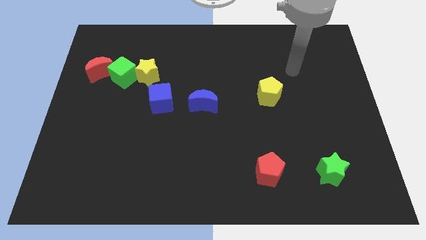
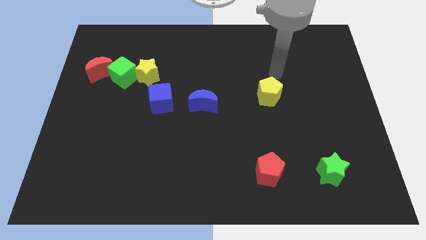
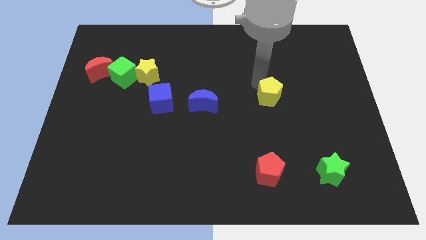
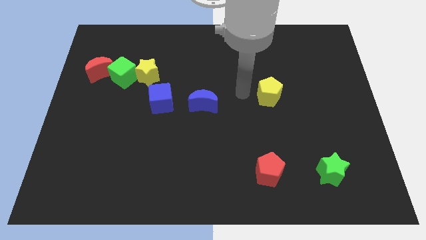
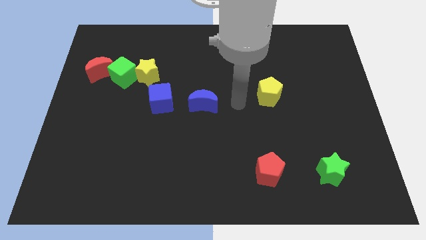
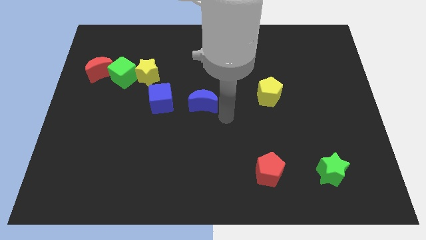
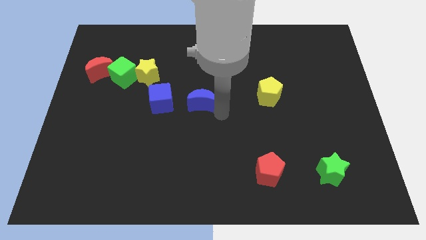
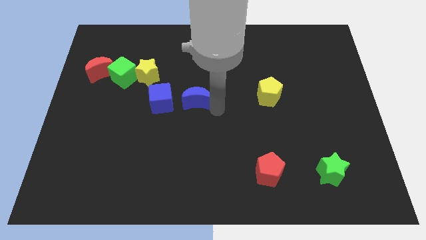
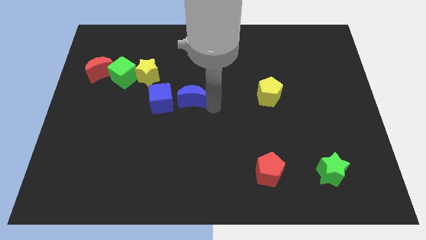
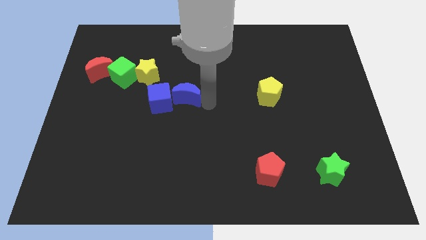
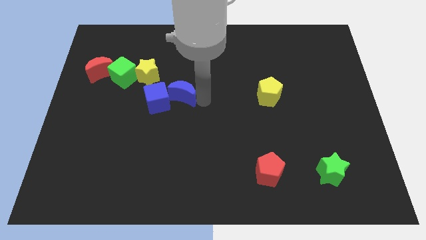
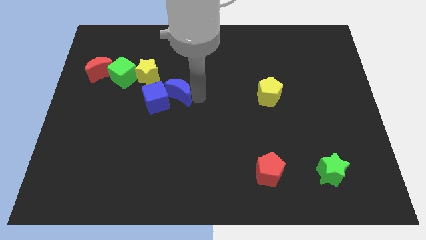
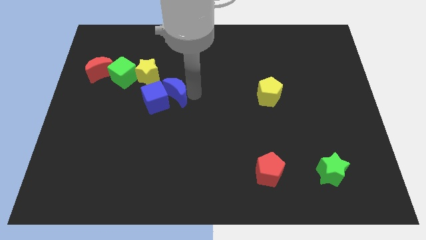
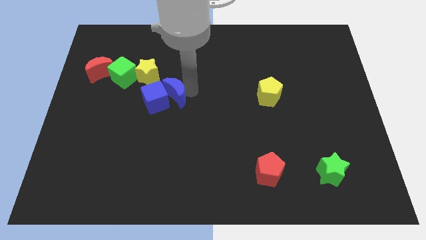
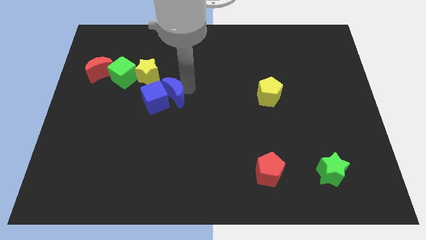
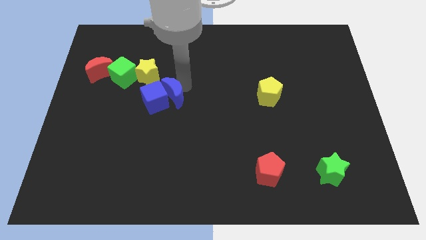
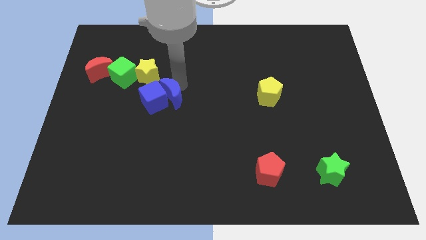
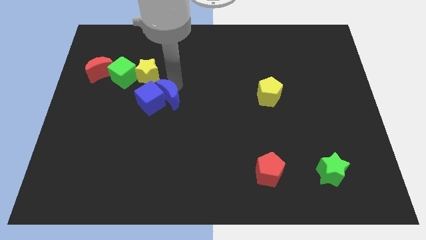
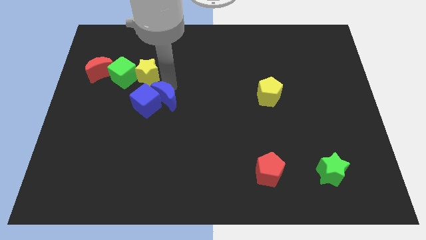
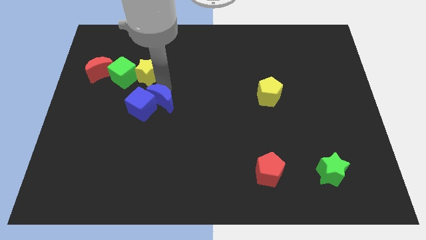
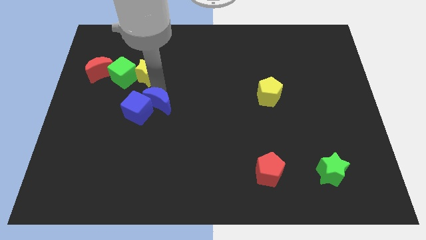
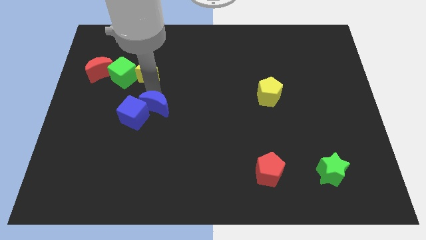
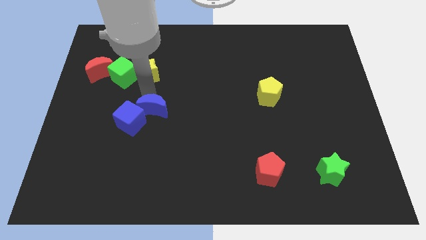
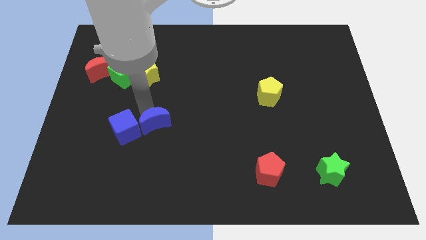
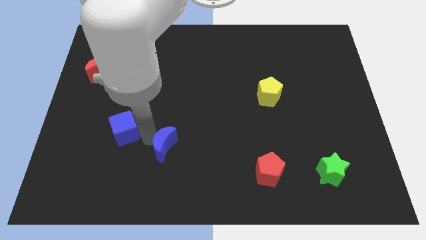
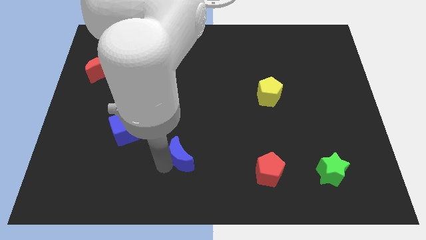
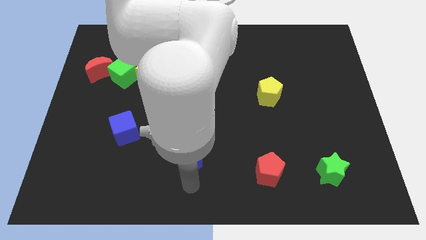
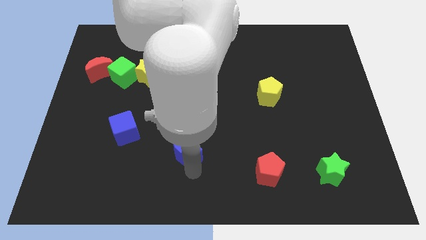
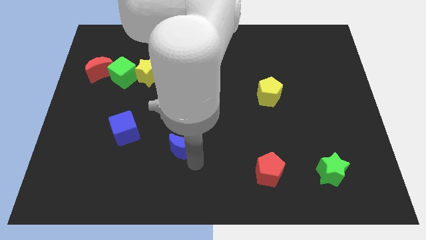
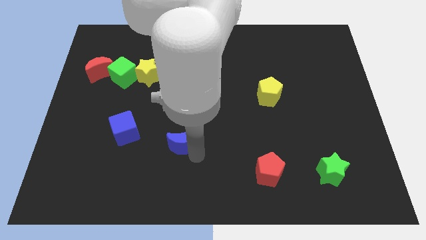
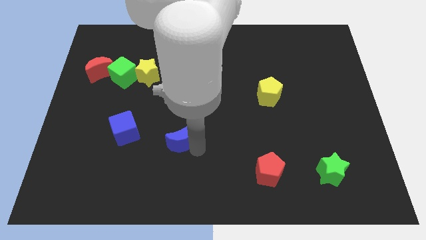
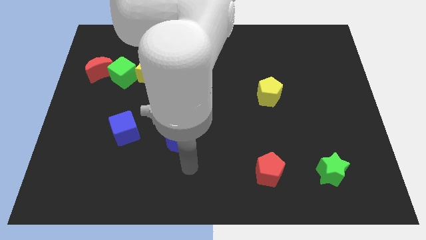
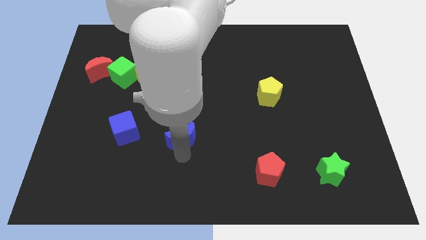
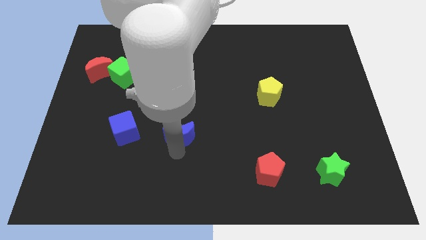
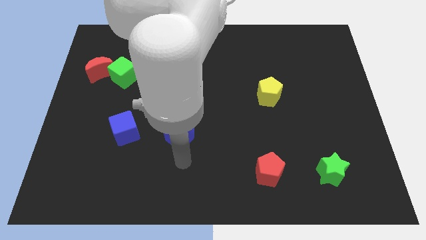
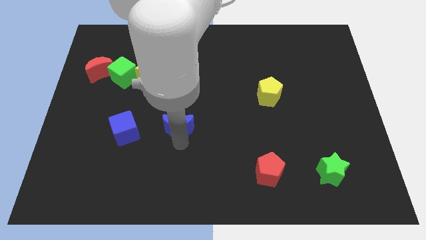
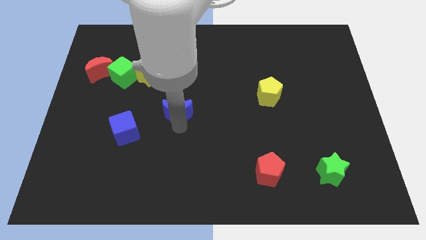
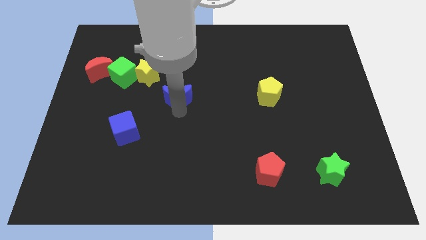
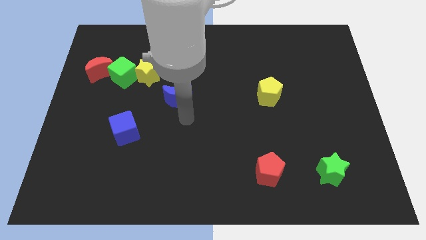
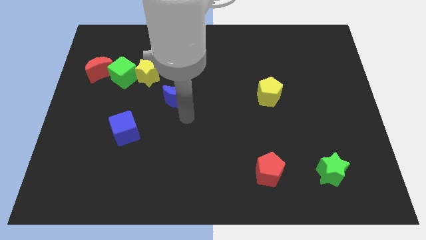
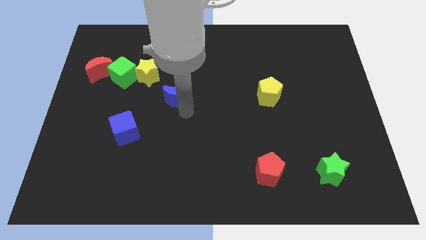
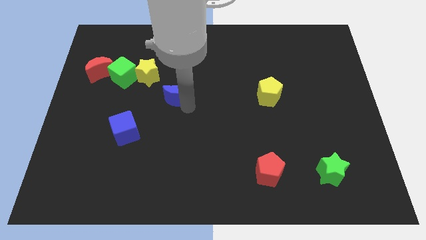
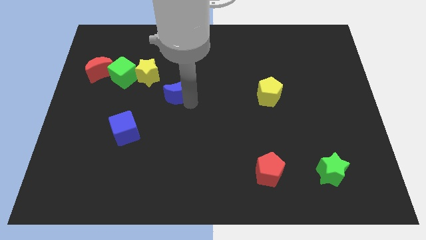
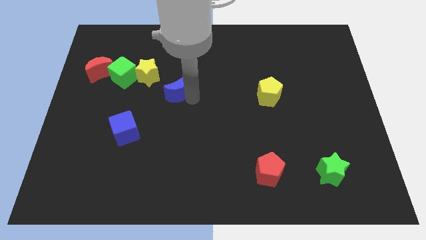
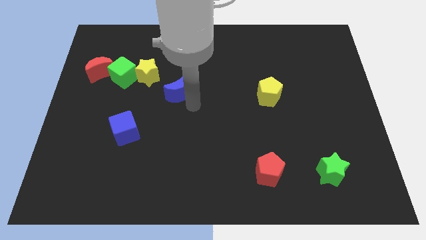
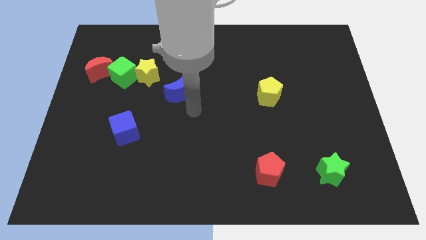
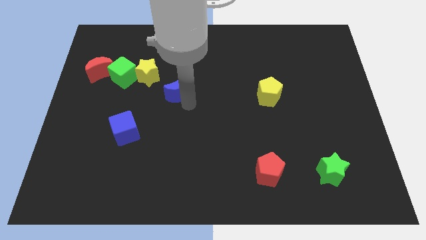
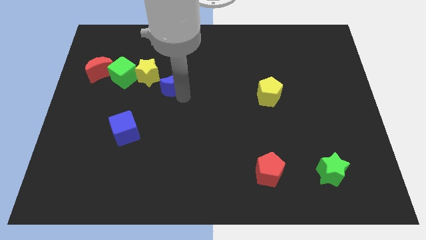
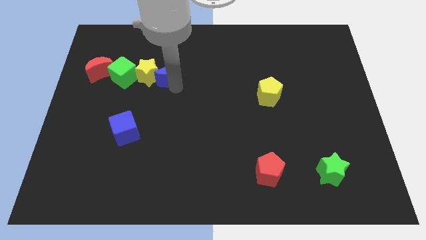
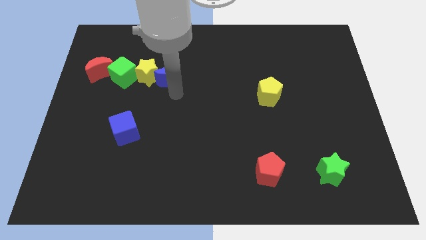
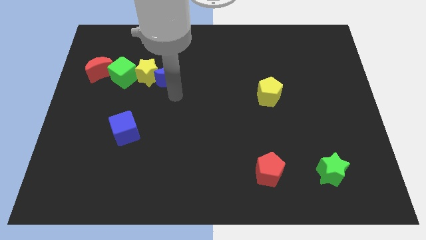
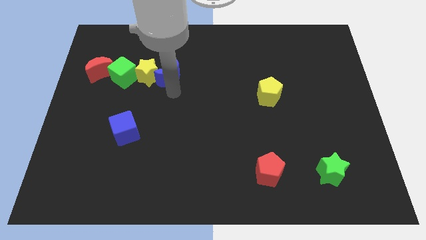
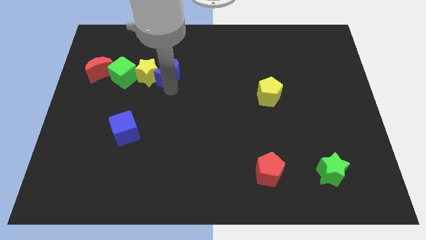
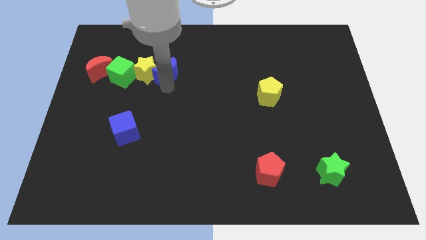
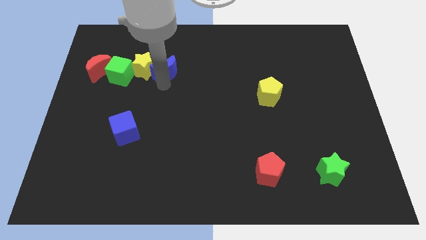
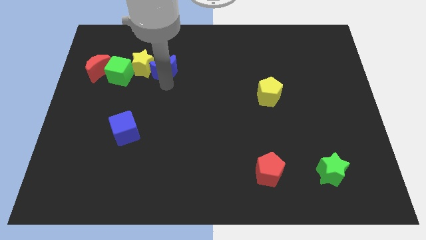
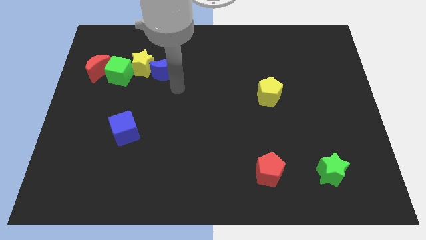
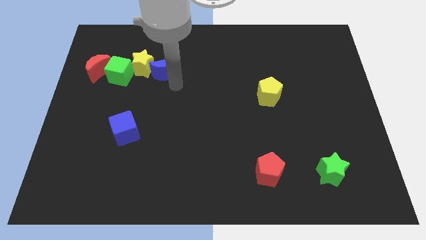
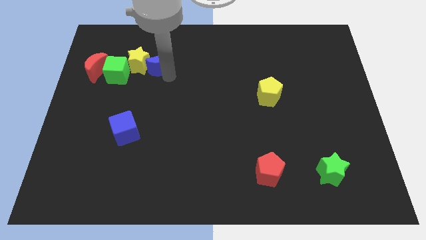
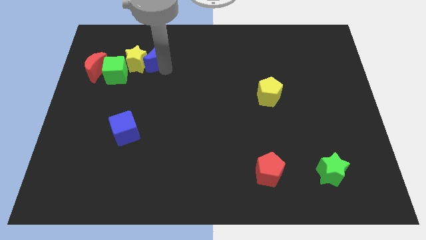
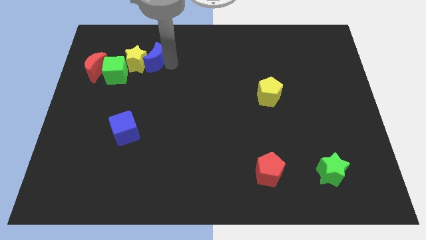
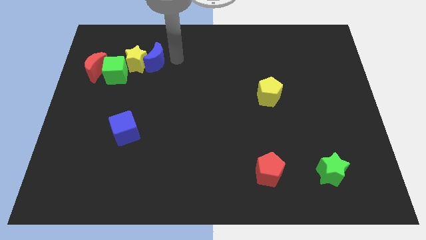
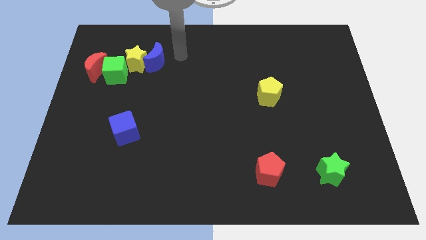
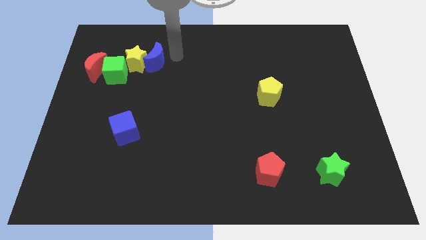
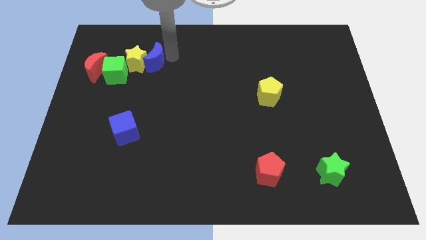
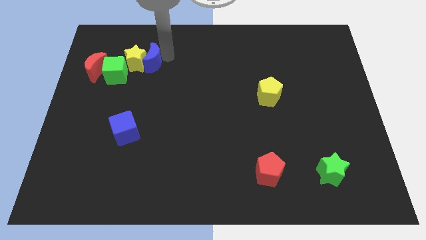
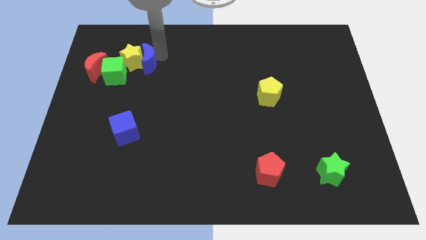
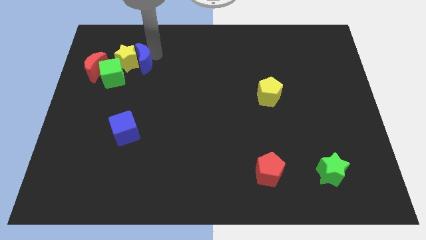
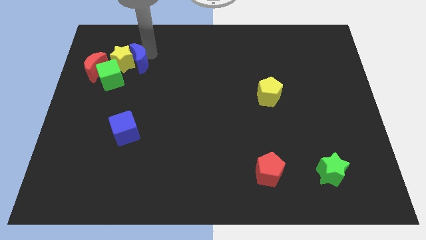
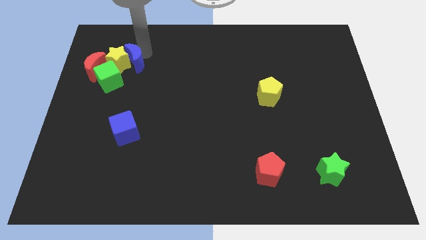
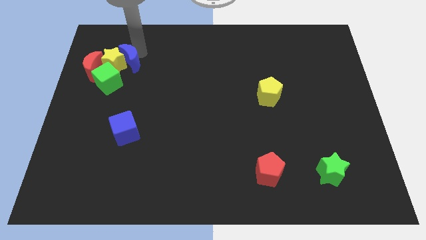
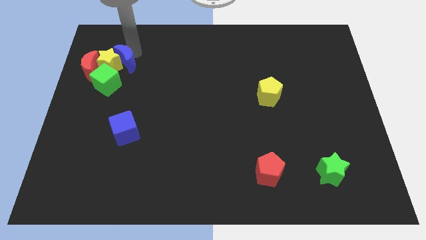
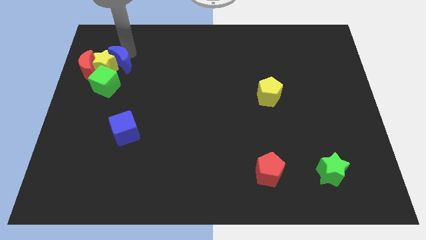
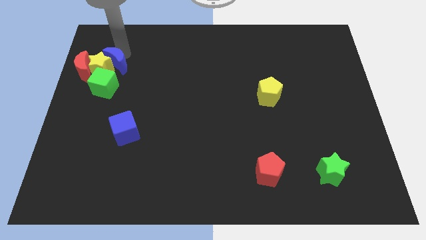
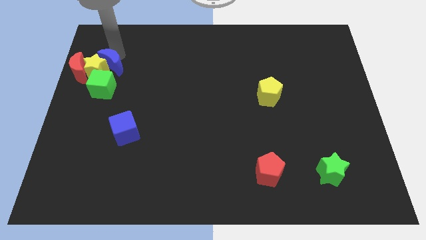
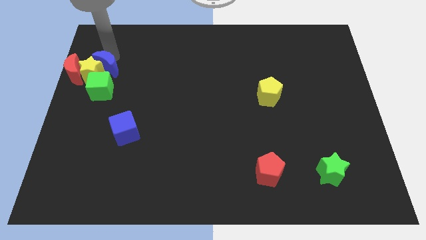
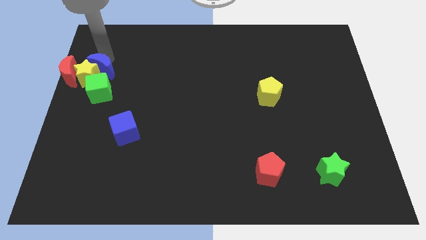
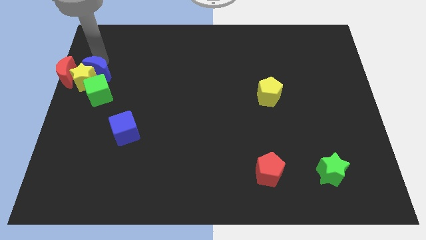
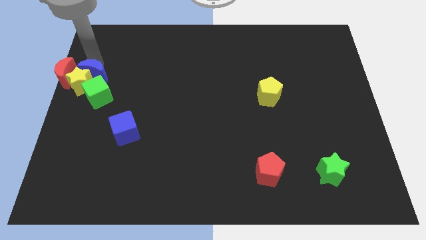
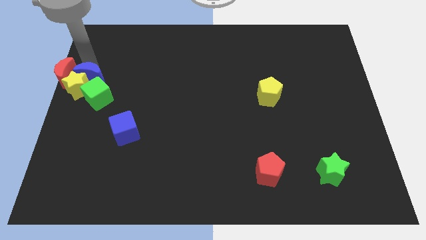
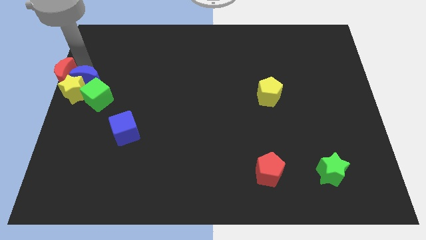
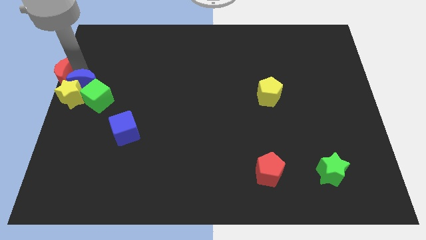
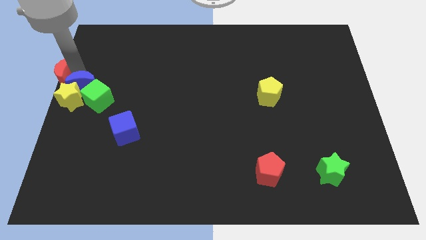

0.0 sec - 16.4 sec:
slide the blue moon towards the green cube
